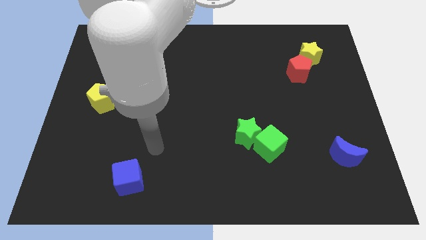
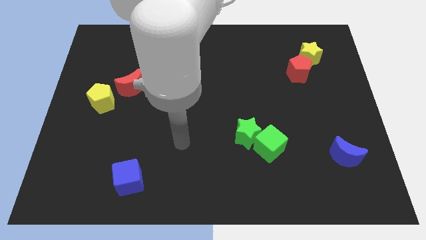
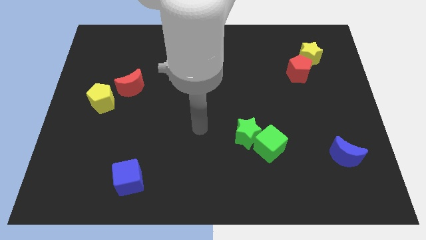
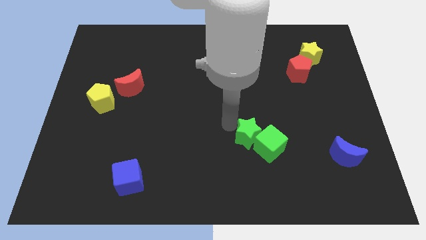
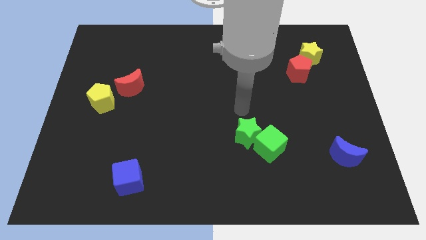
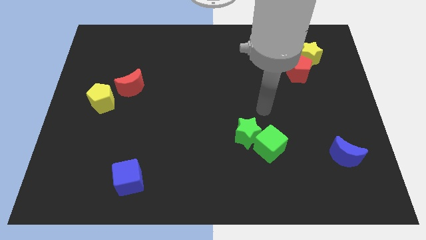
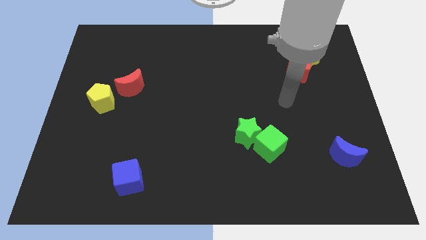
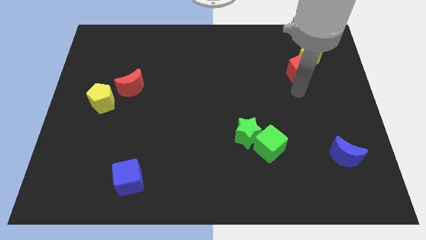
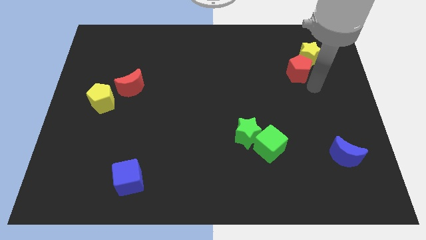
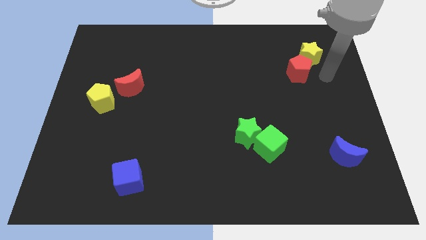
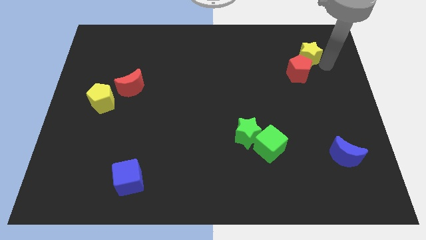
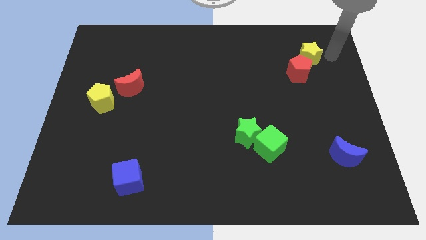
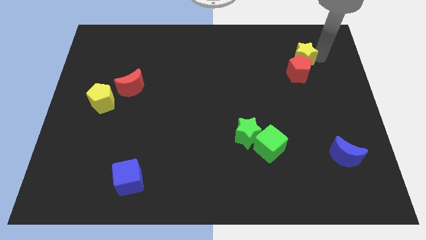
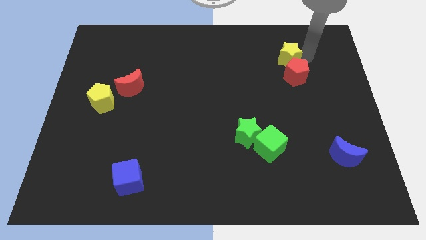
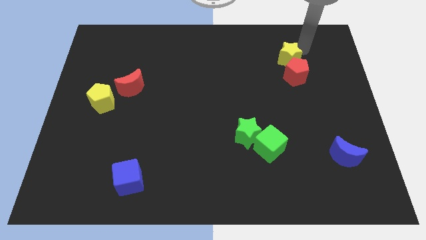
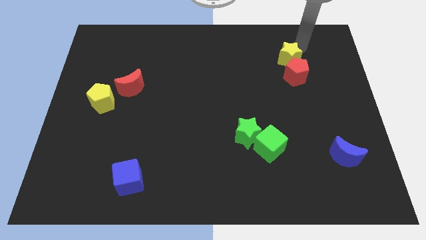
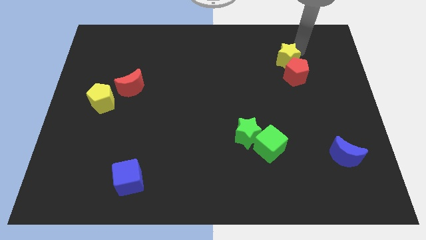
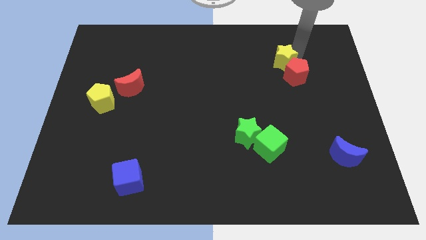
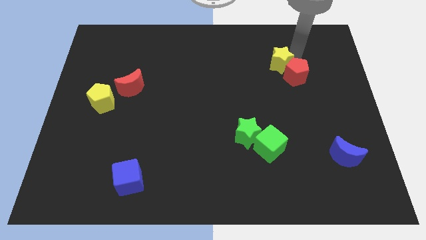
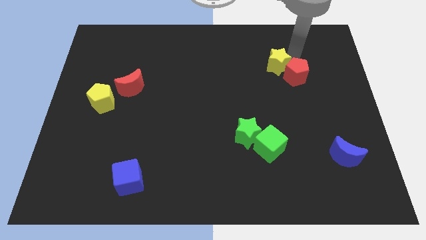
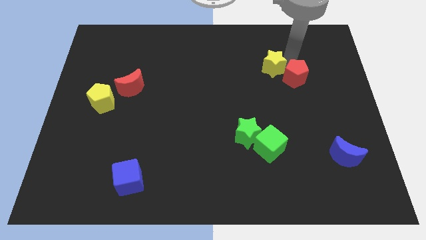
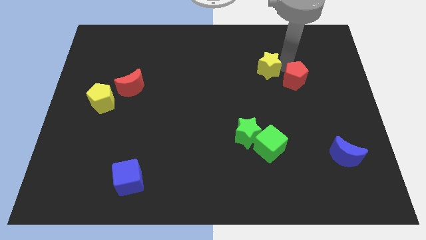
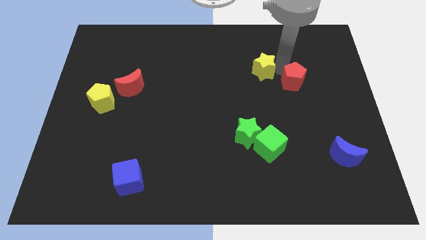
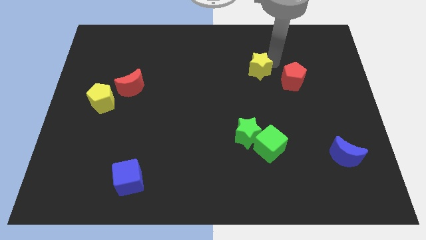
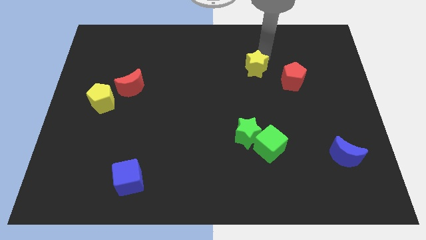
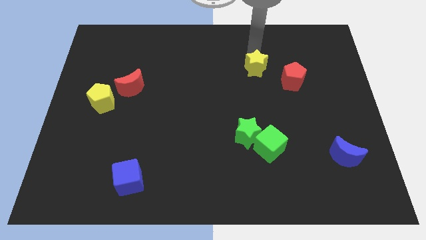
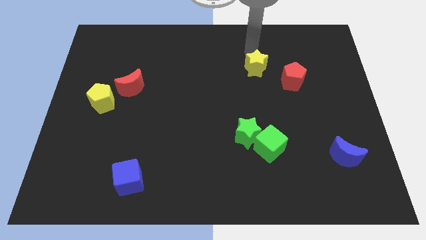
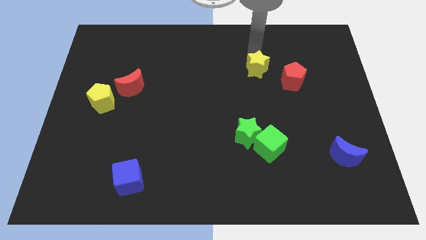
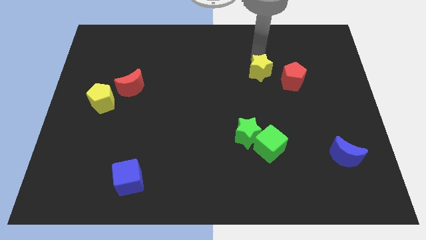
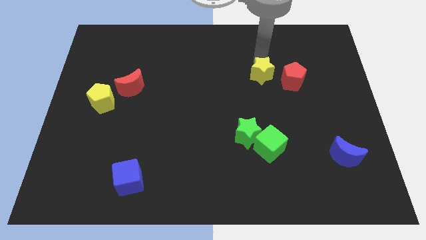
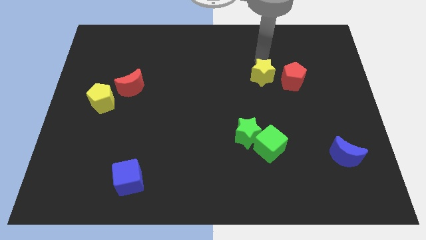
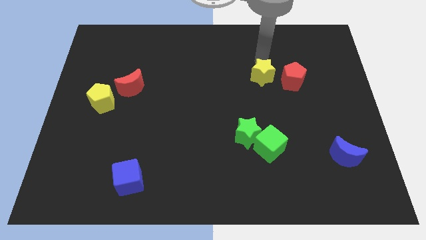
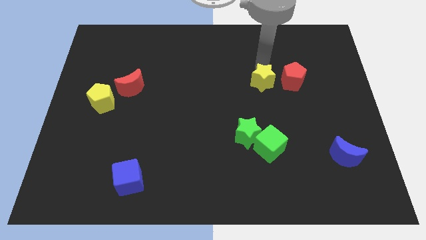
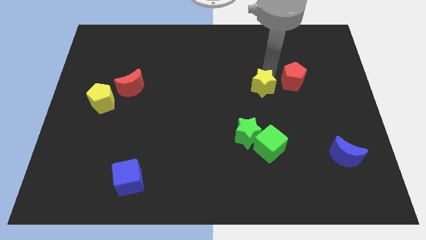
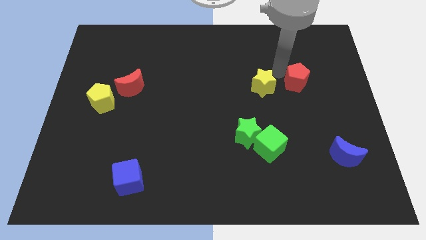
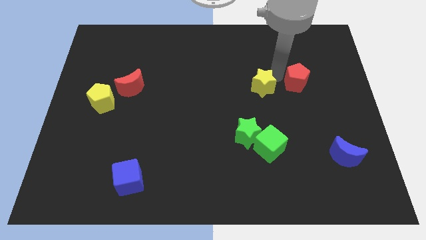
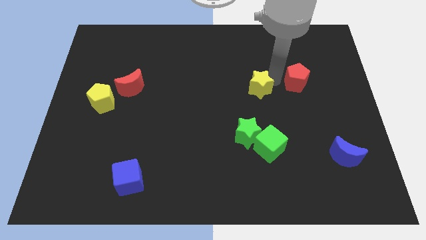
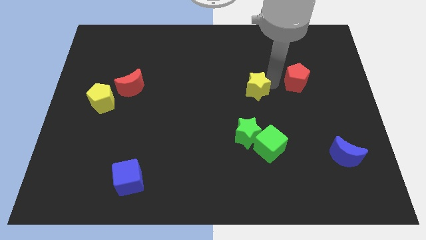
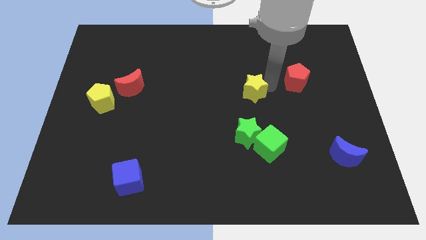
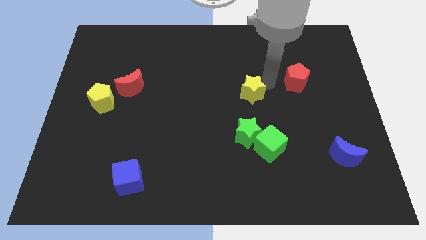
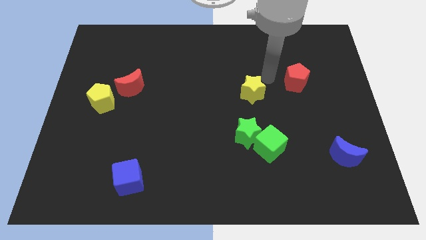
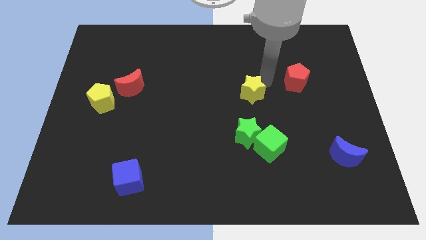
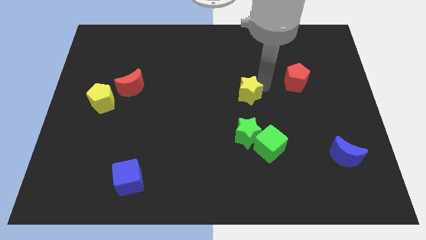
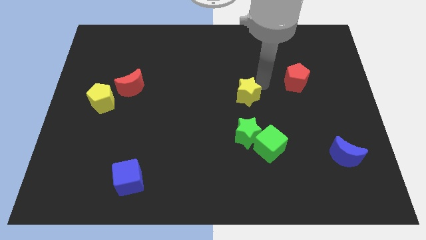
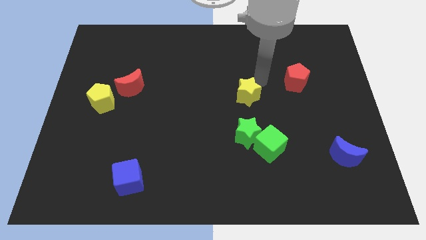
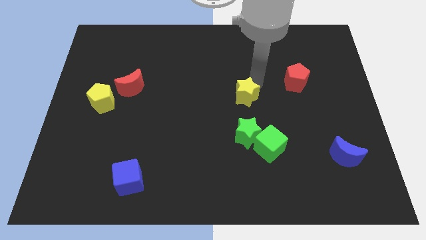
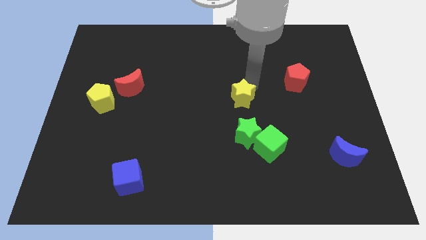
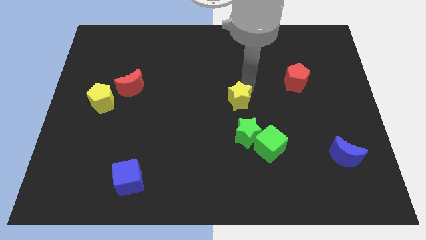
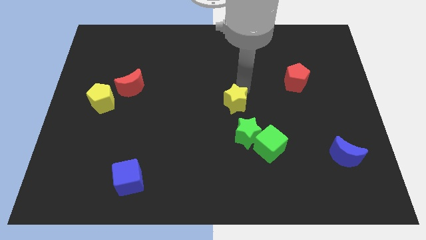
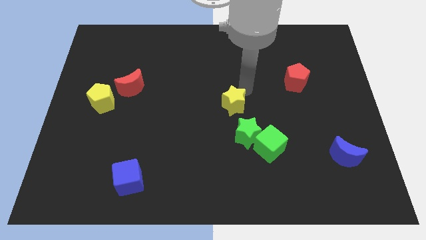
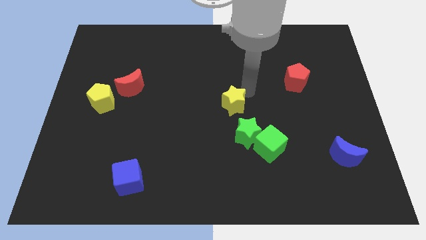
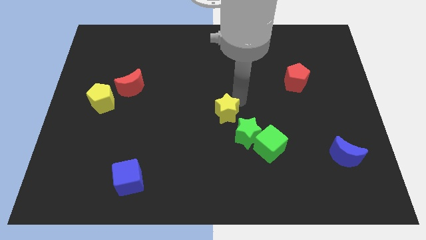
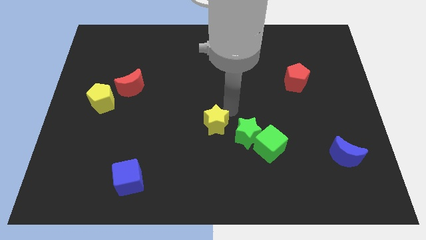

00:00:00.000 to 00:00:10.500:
move the yellow star just left of the green star

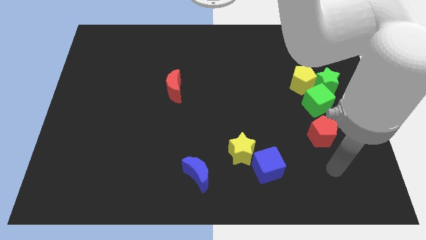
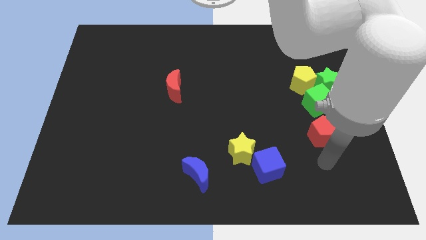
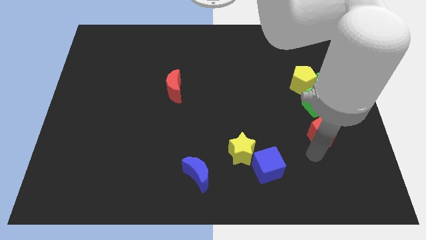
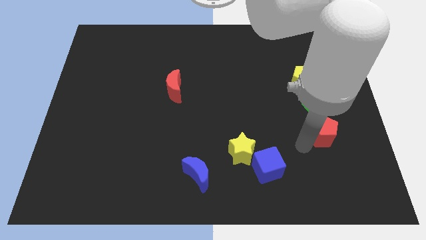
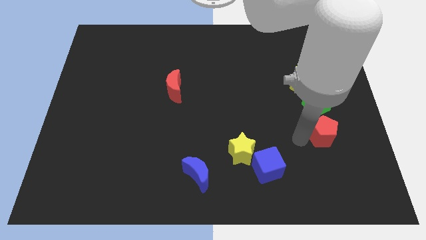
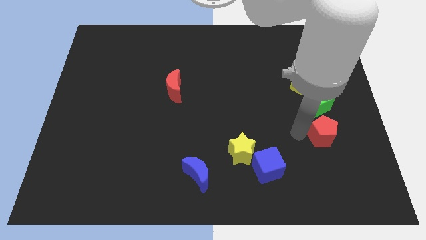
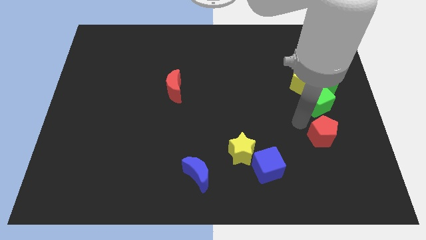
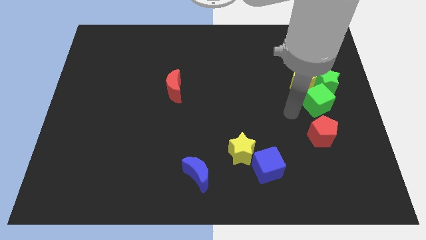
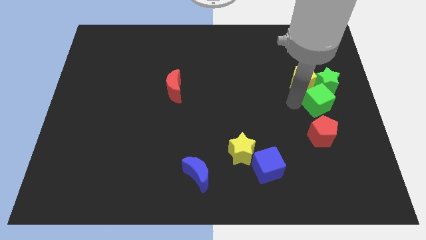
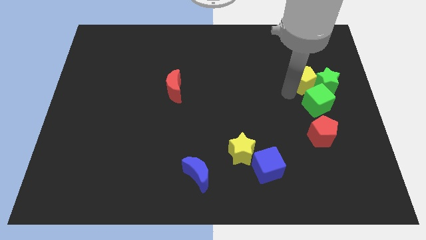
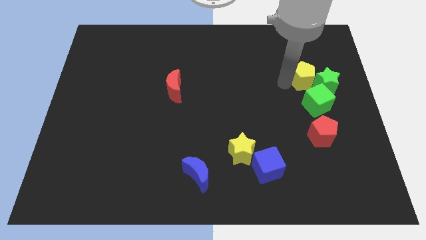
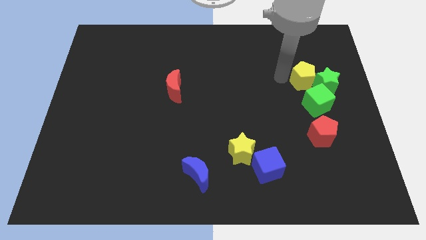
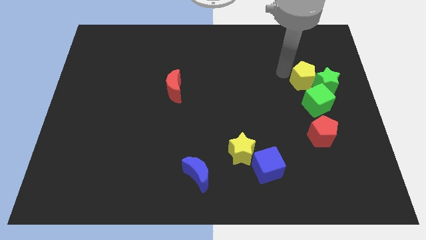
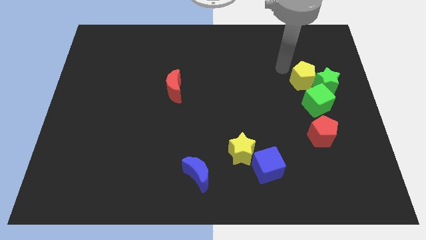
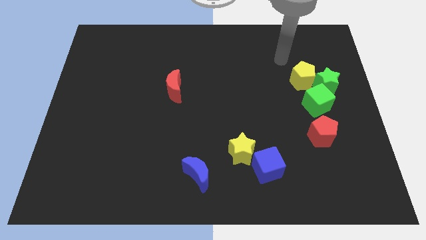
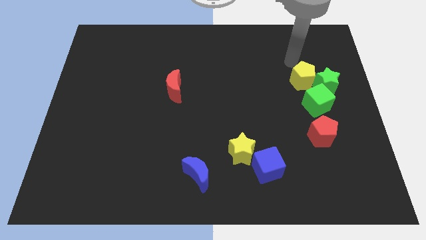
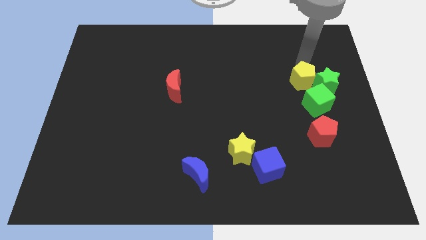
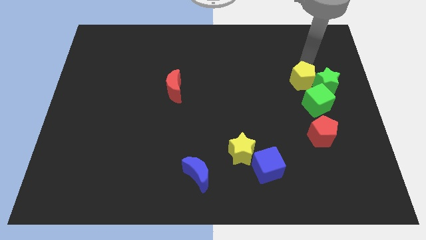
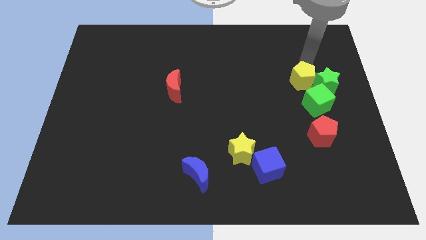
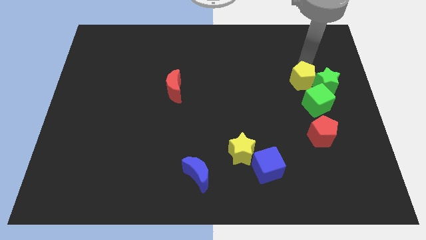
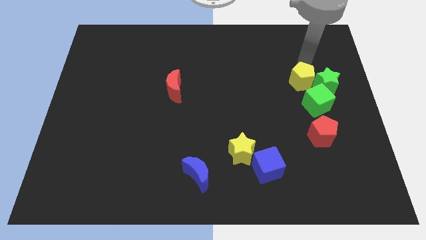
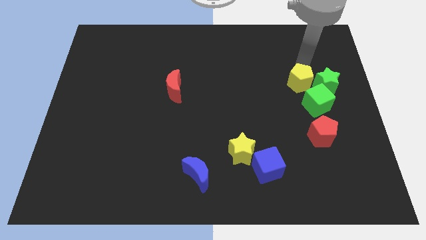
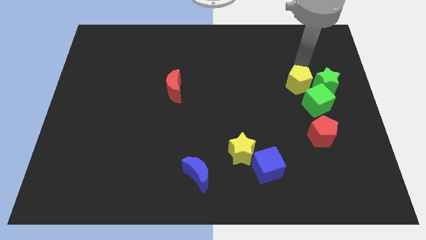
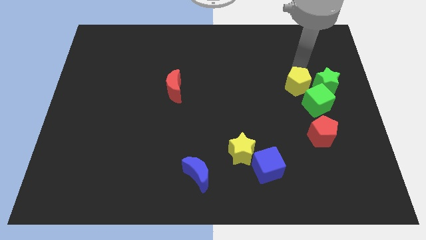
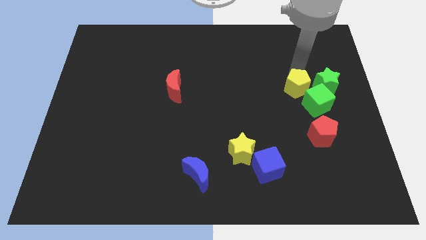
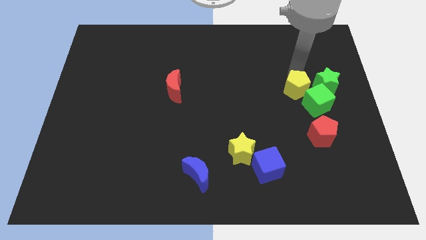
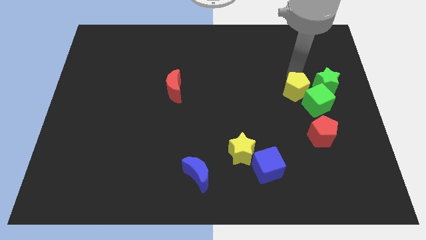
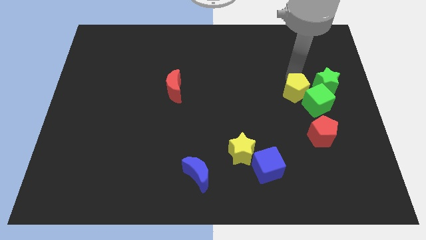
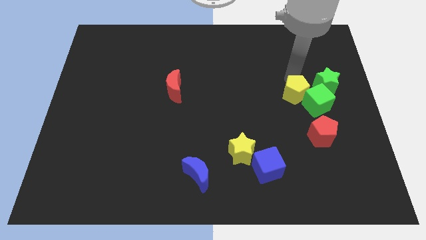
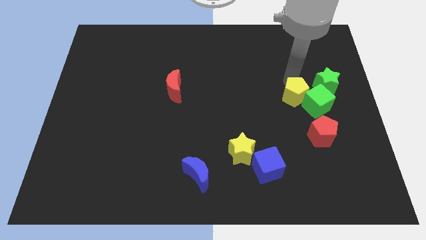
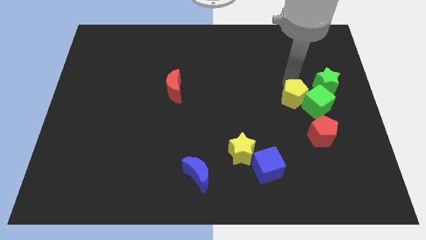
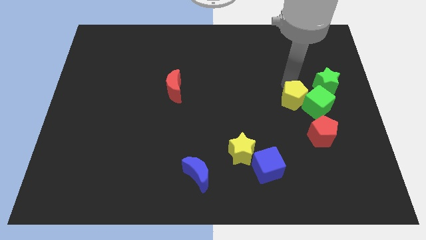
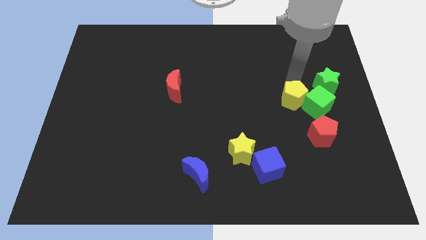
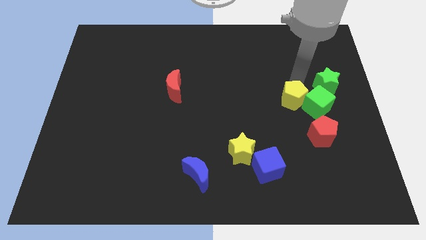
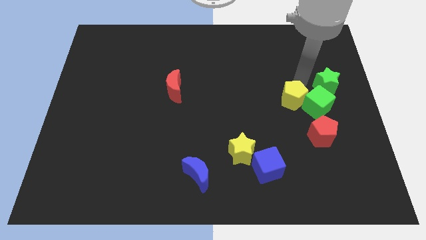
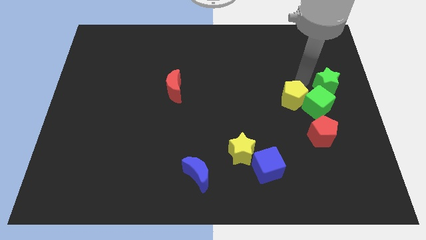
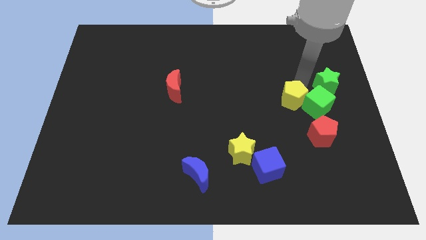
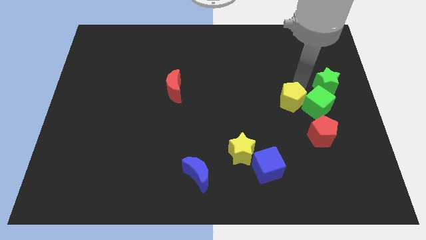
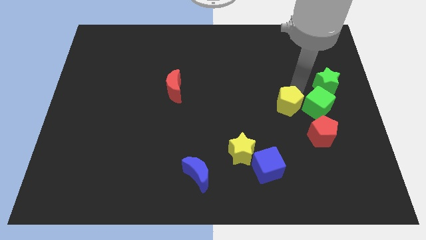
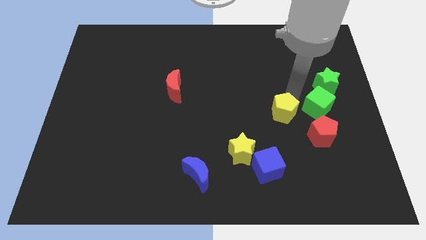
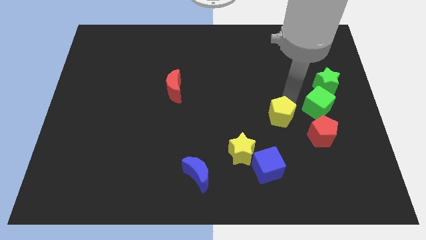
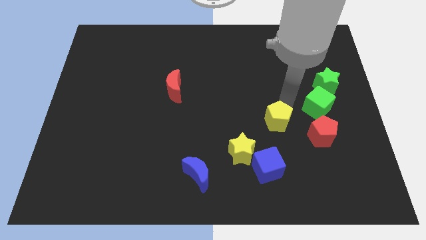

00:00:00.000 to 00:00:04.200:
put the yellow pentagon left of the red pentagon
